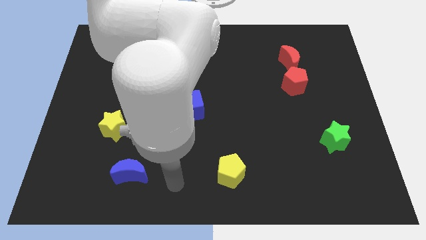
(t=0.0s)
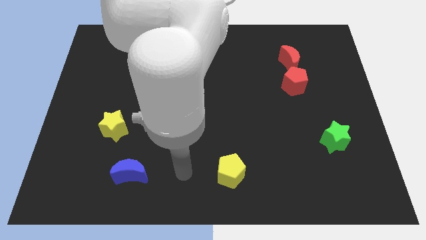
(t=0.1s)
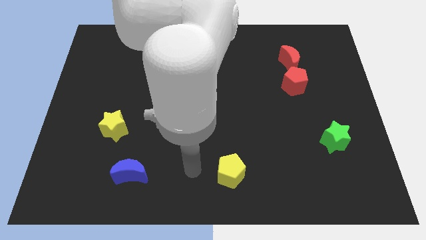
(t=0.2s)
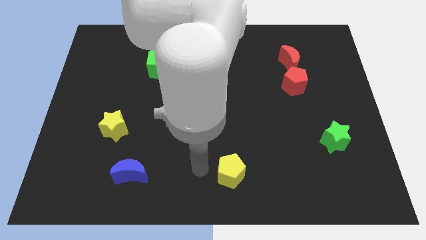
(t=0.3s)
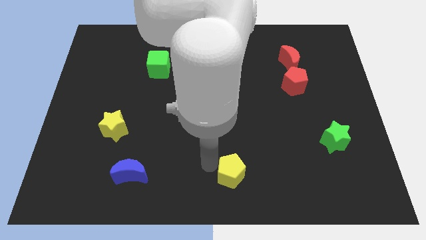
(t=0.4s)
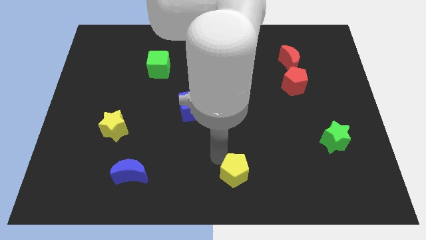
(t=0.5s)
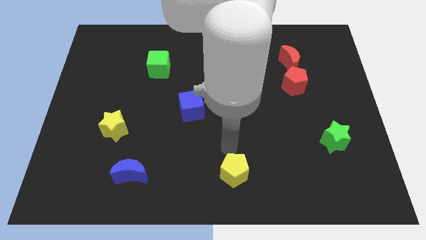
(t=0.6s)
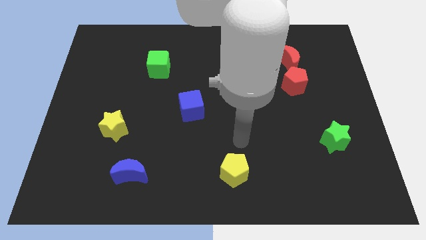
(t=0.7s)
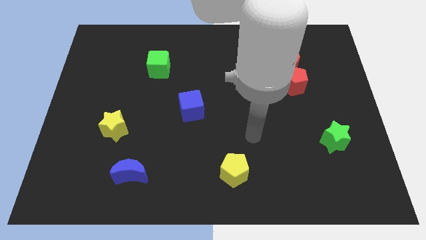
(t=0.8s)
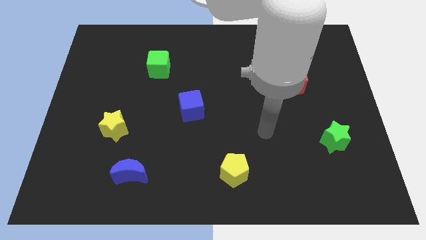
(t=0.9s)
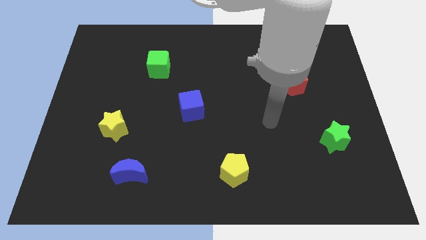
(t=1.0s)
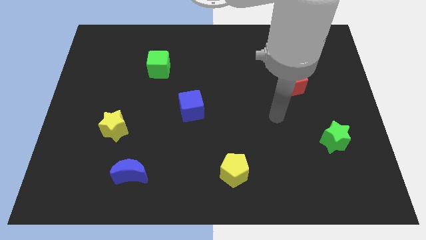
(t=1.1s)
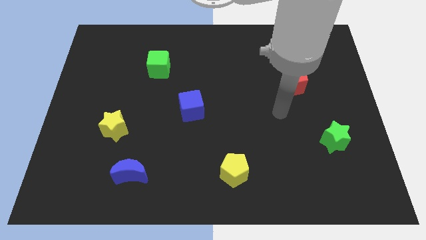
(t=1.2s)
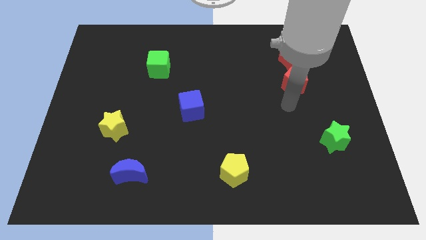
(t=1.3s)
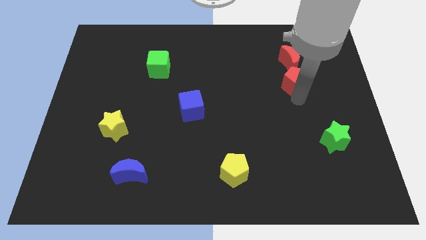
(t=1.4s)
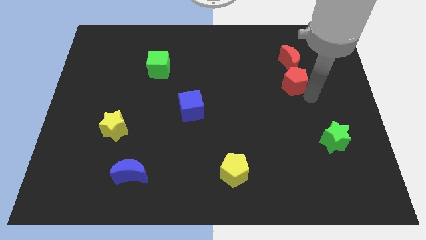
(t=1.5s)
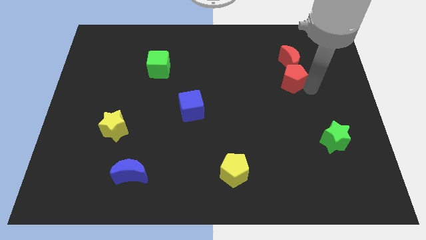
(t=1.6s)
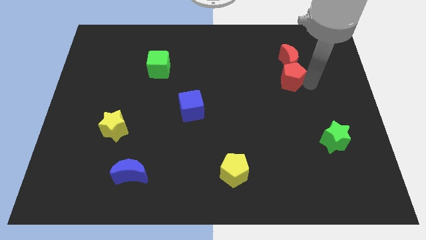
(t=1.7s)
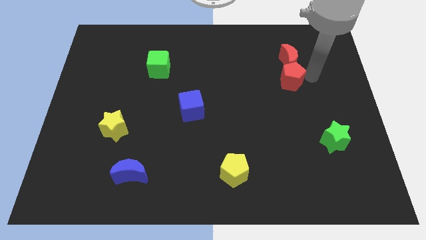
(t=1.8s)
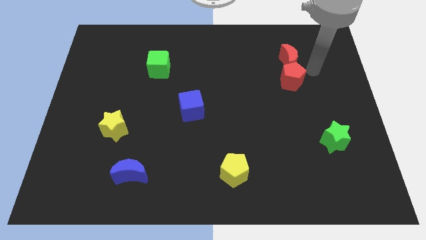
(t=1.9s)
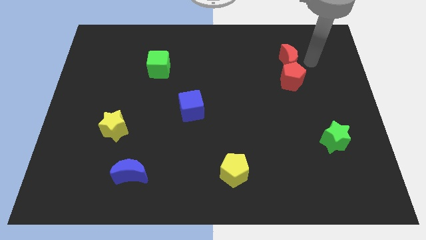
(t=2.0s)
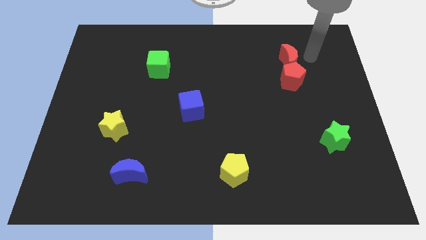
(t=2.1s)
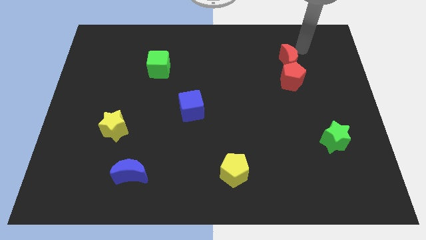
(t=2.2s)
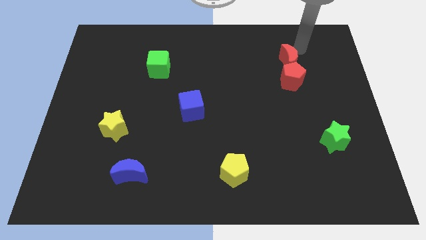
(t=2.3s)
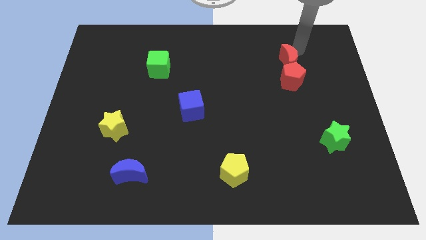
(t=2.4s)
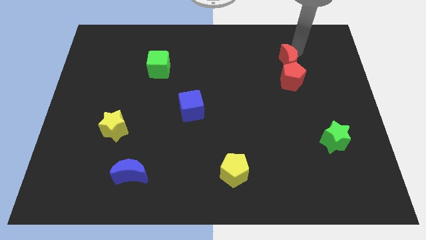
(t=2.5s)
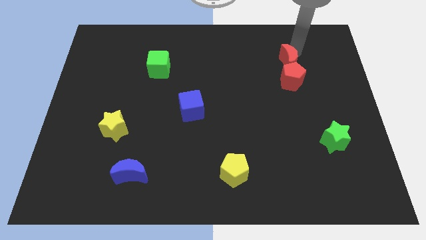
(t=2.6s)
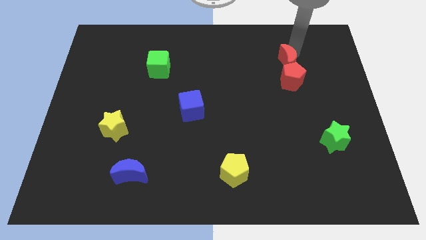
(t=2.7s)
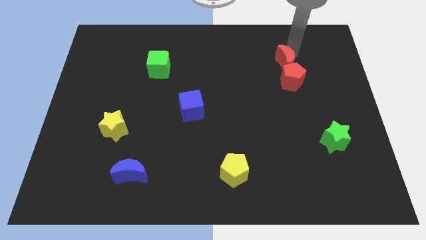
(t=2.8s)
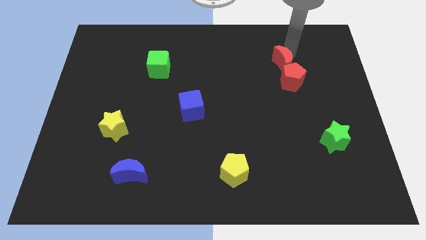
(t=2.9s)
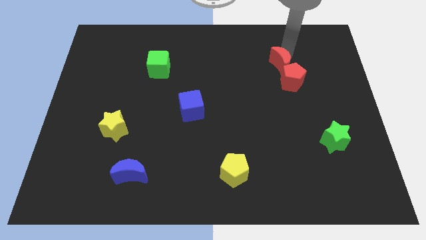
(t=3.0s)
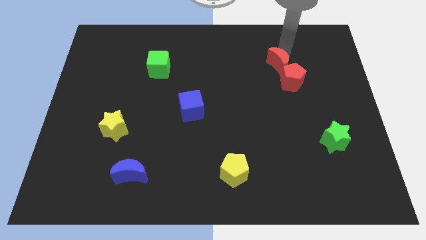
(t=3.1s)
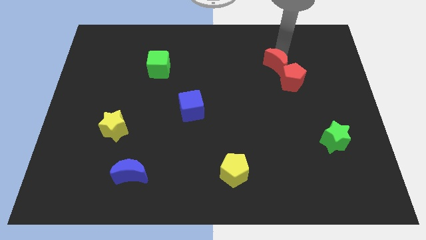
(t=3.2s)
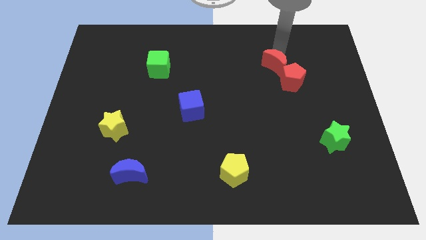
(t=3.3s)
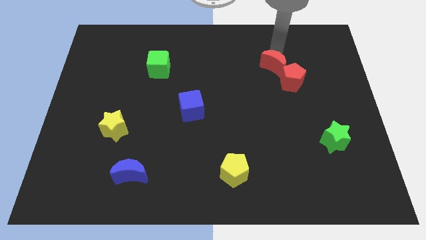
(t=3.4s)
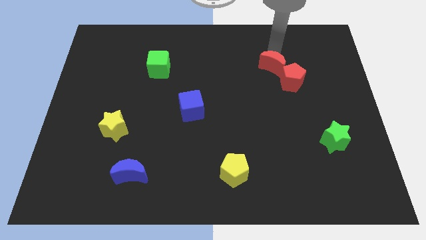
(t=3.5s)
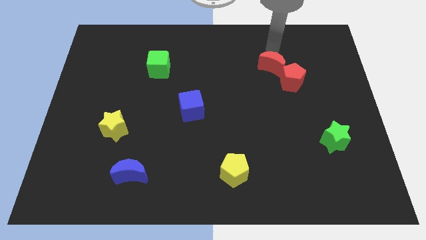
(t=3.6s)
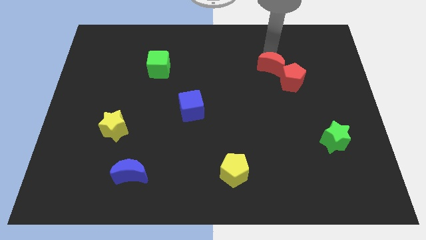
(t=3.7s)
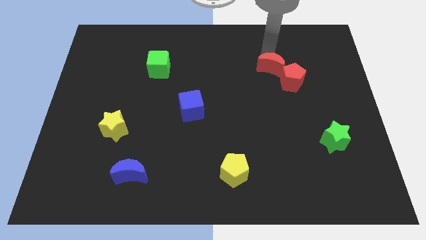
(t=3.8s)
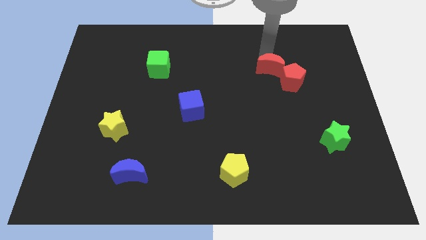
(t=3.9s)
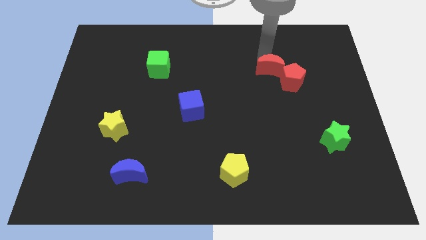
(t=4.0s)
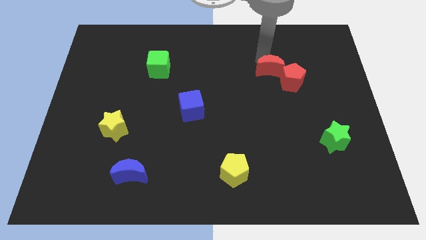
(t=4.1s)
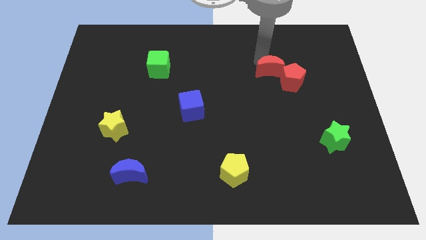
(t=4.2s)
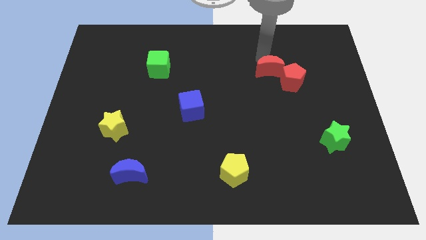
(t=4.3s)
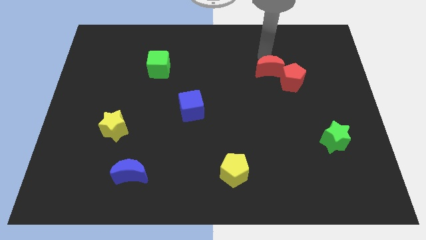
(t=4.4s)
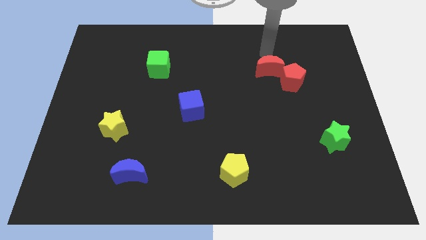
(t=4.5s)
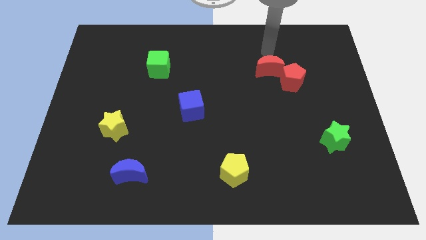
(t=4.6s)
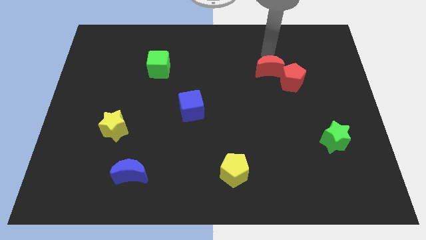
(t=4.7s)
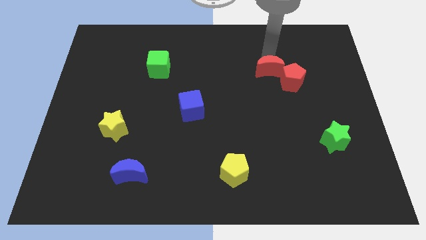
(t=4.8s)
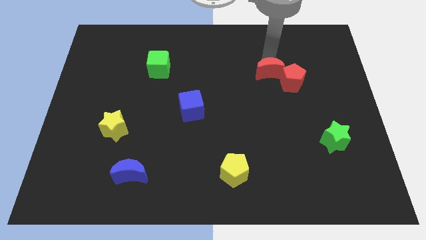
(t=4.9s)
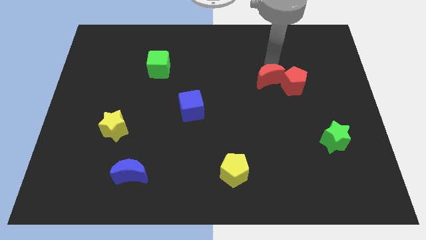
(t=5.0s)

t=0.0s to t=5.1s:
slightly move the red moon diagonally downwards and left

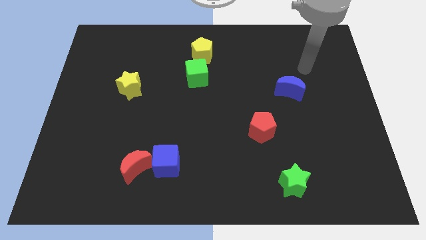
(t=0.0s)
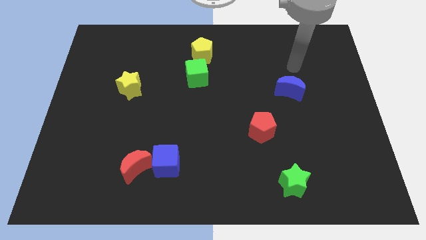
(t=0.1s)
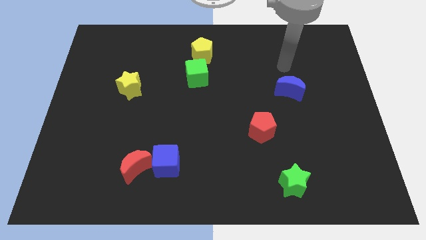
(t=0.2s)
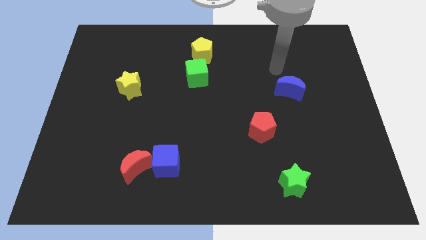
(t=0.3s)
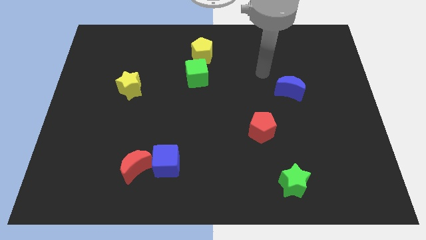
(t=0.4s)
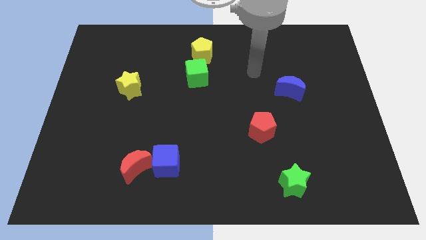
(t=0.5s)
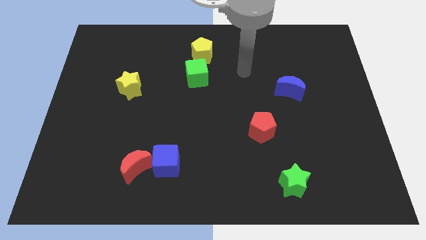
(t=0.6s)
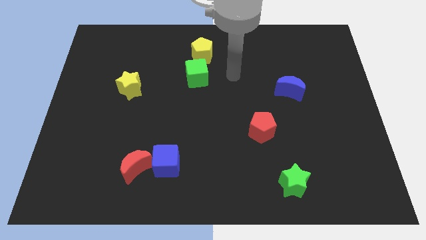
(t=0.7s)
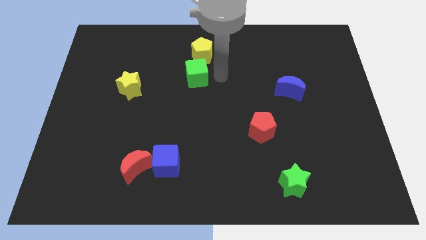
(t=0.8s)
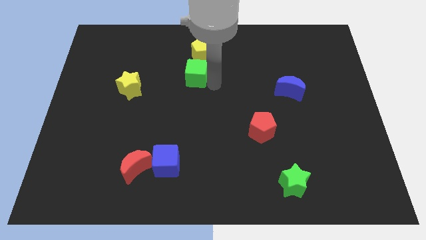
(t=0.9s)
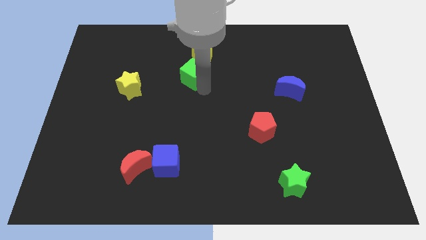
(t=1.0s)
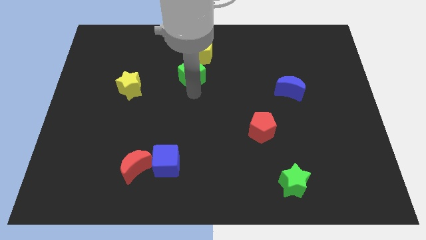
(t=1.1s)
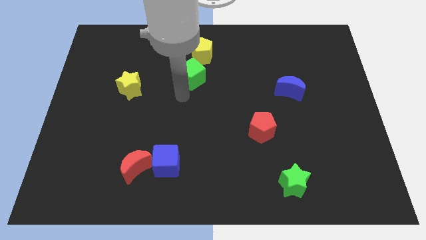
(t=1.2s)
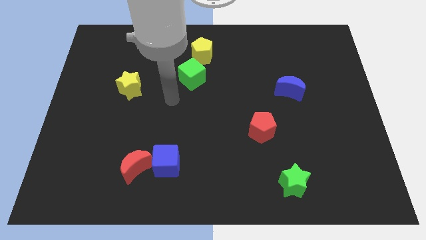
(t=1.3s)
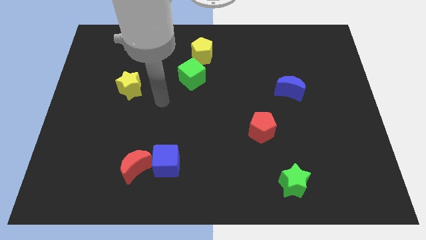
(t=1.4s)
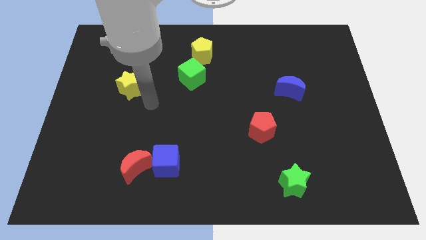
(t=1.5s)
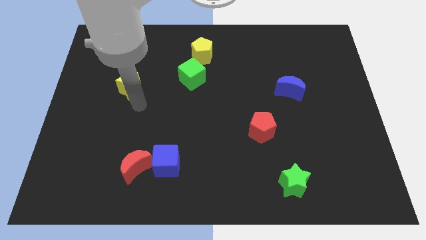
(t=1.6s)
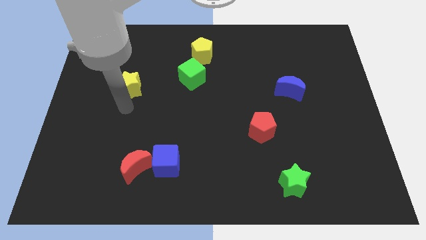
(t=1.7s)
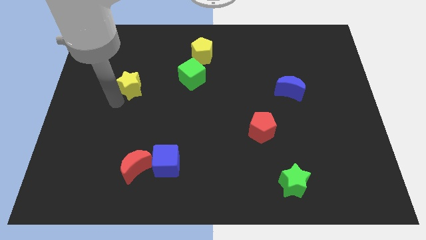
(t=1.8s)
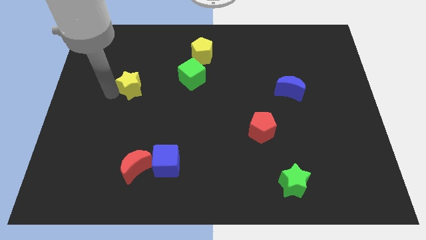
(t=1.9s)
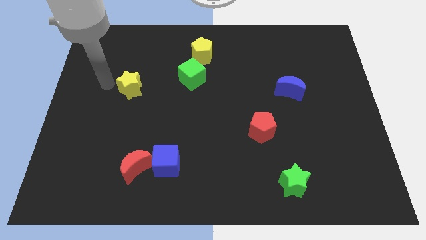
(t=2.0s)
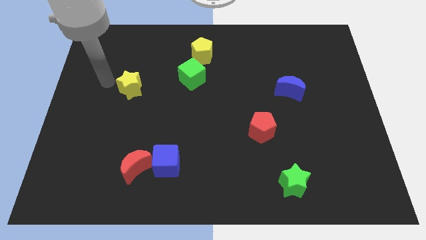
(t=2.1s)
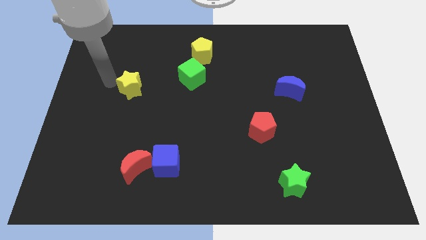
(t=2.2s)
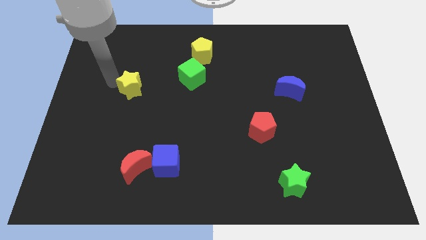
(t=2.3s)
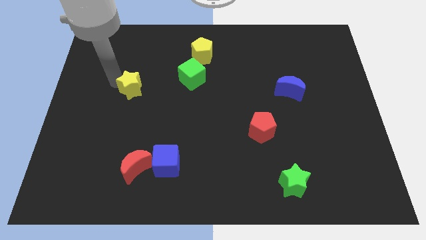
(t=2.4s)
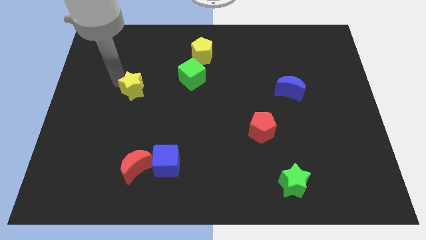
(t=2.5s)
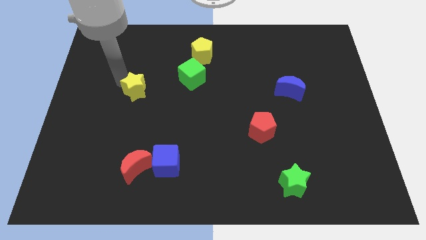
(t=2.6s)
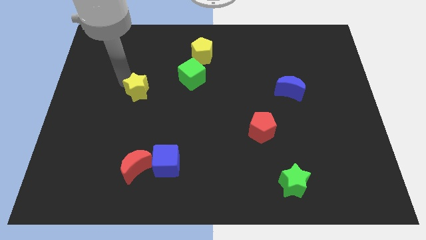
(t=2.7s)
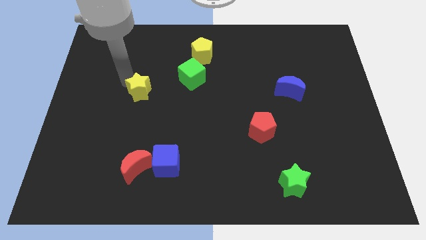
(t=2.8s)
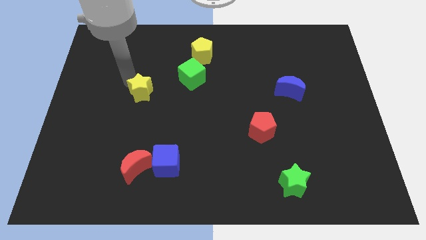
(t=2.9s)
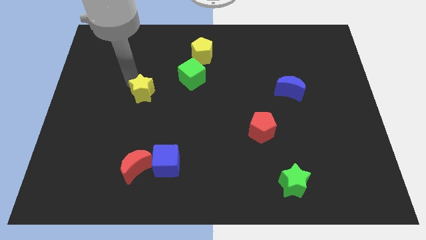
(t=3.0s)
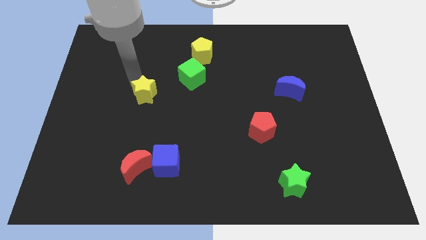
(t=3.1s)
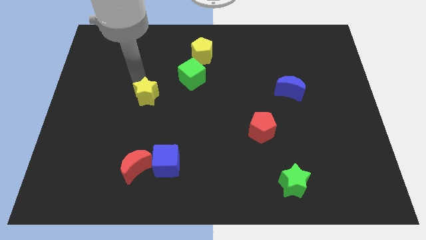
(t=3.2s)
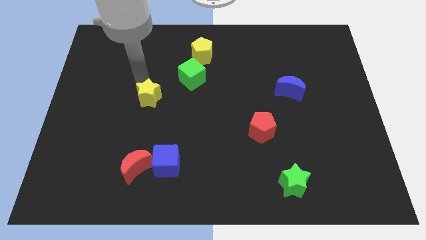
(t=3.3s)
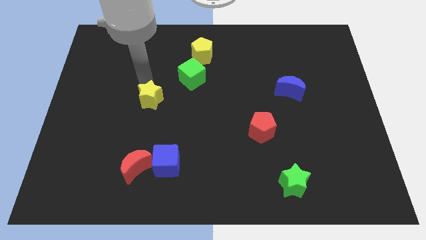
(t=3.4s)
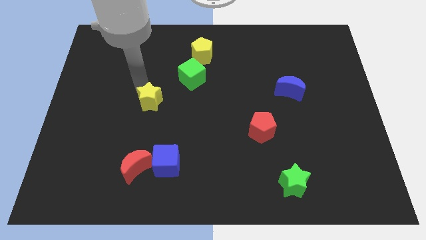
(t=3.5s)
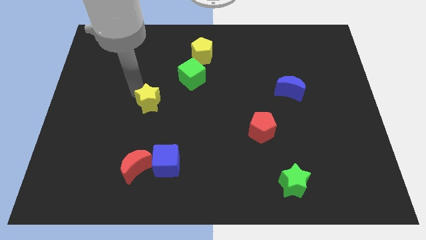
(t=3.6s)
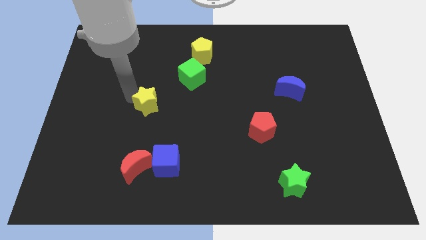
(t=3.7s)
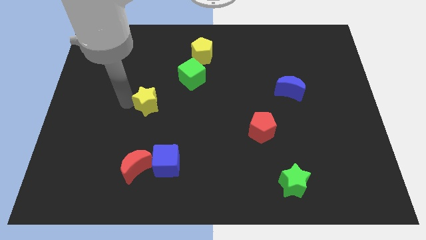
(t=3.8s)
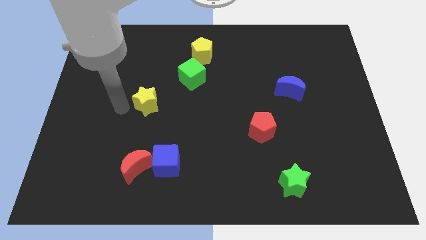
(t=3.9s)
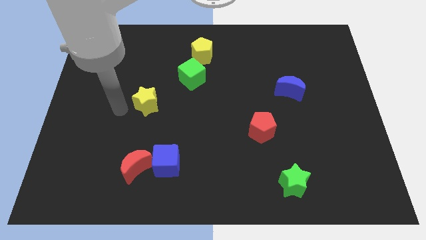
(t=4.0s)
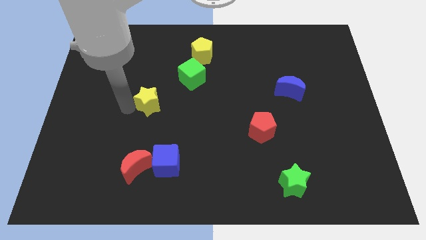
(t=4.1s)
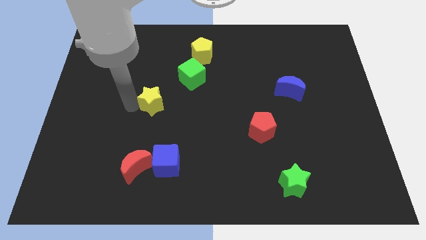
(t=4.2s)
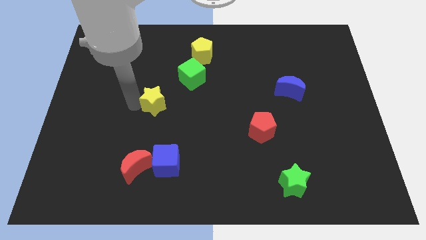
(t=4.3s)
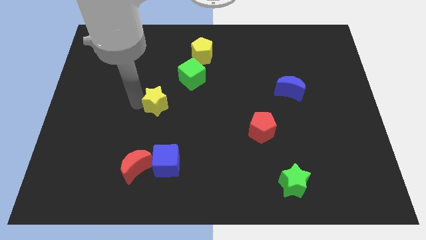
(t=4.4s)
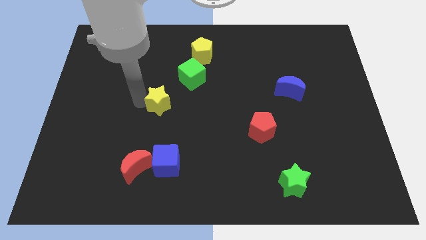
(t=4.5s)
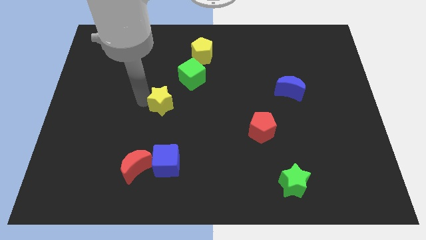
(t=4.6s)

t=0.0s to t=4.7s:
slightly push the yellow star right
